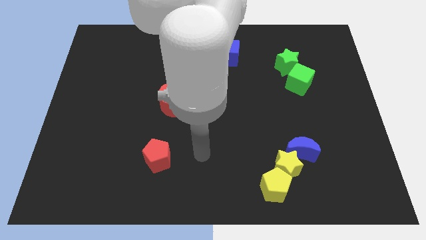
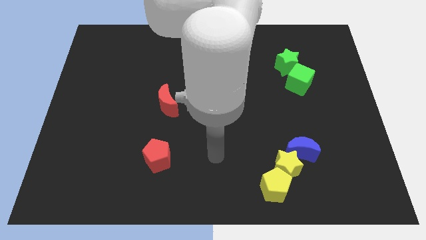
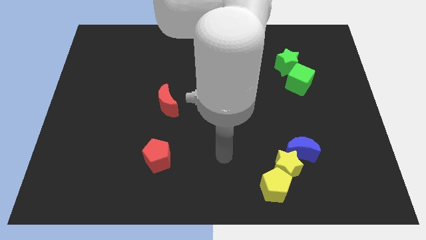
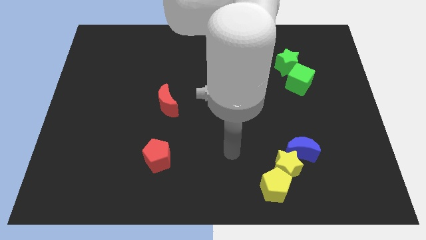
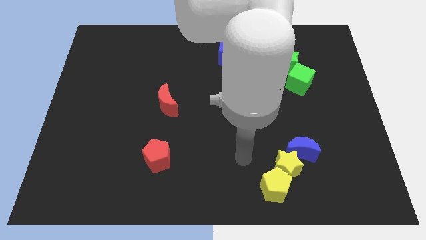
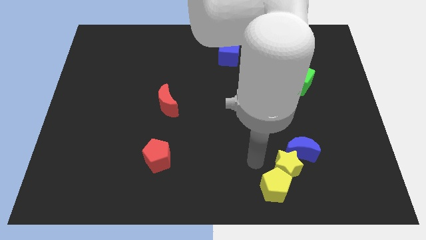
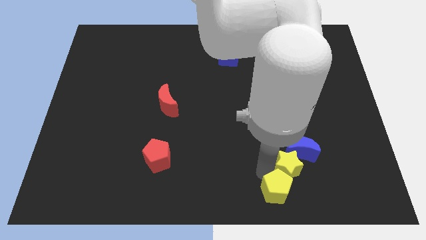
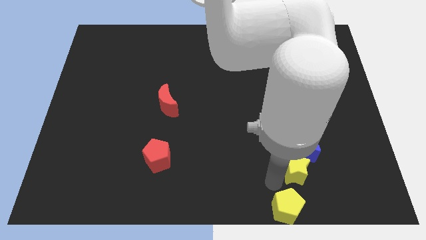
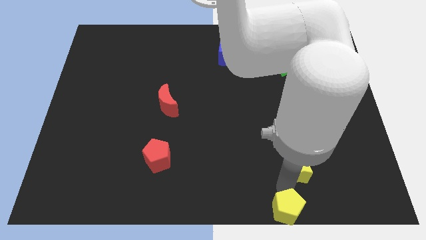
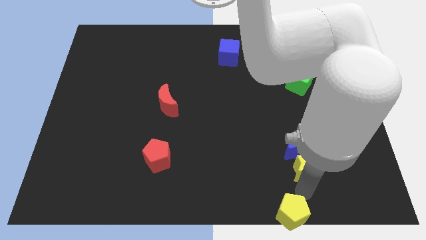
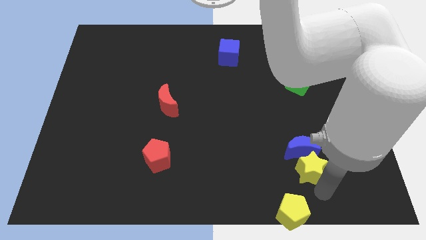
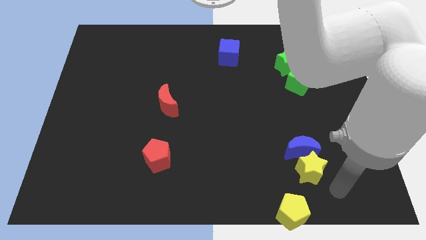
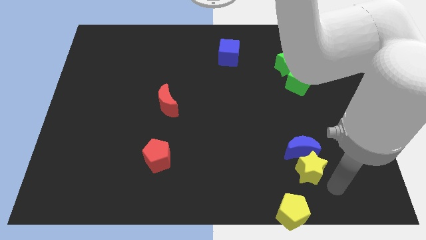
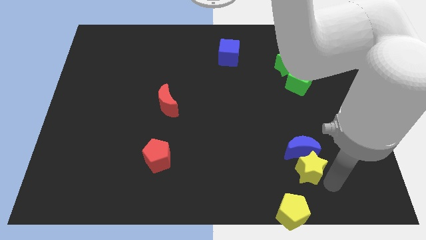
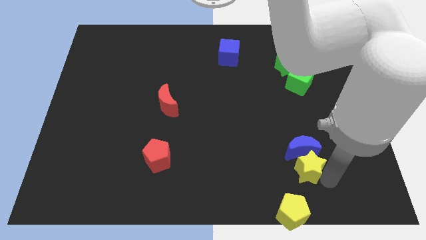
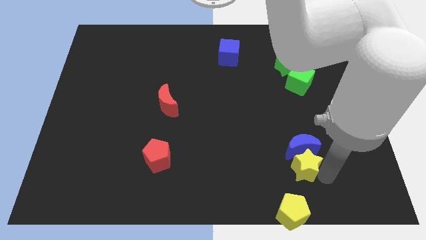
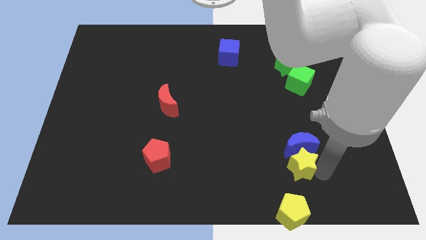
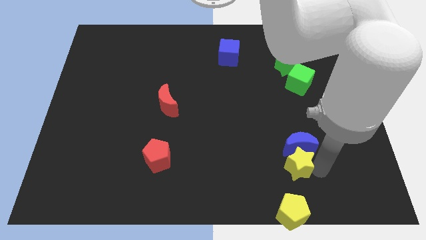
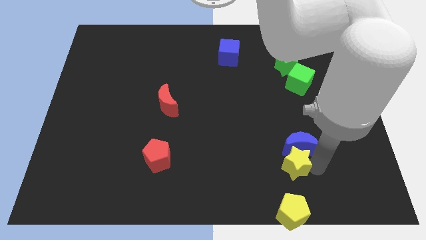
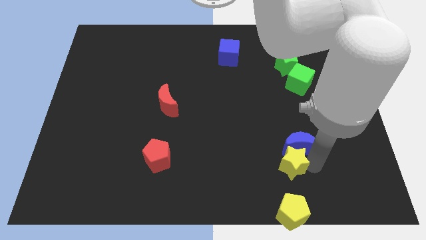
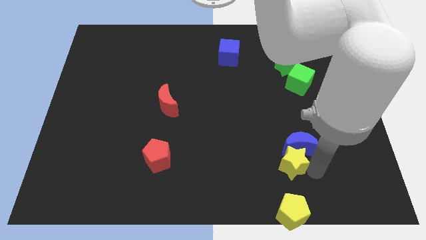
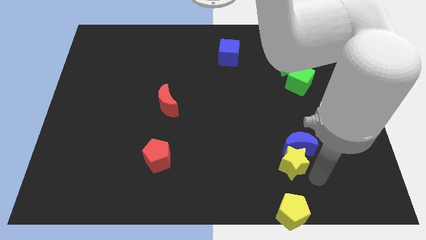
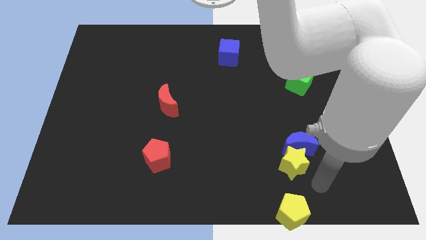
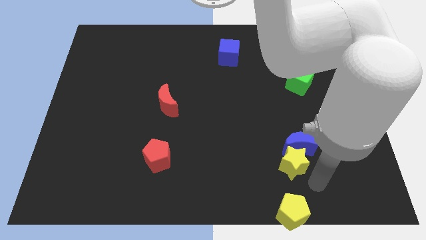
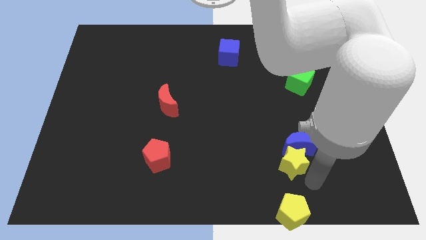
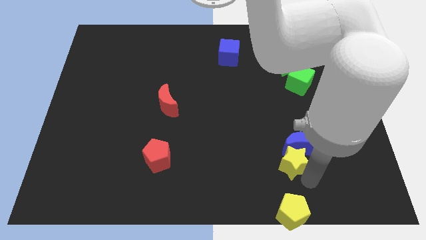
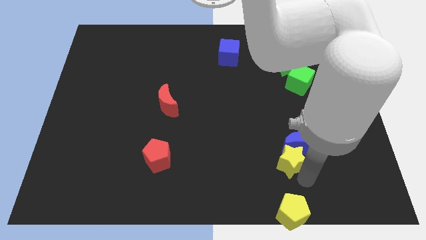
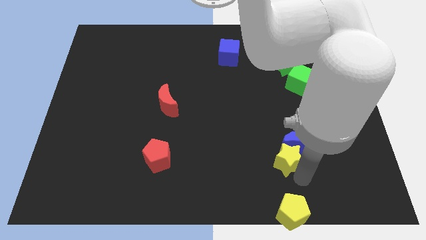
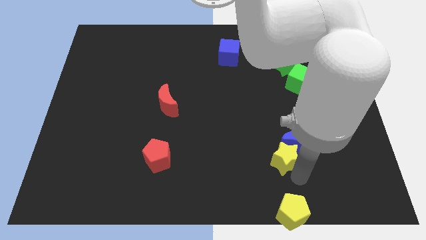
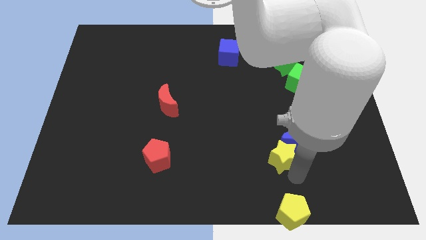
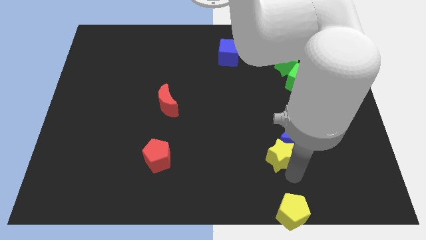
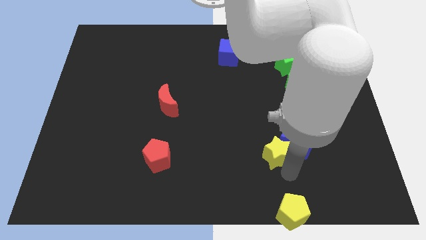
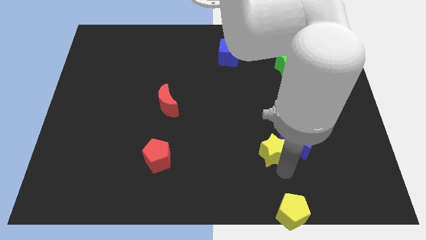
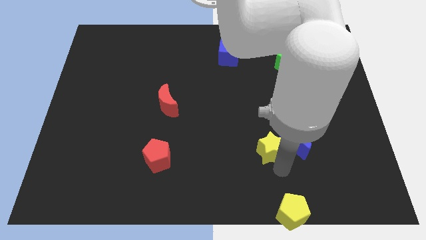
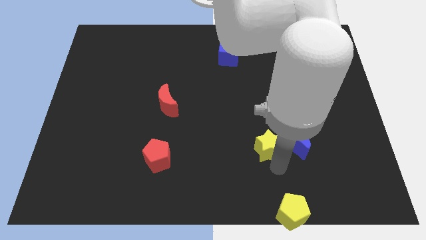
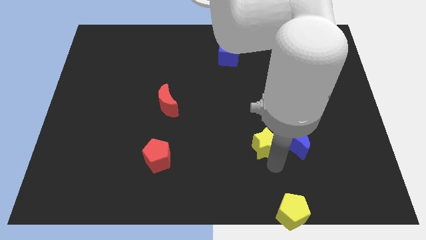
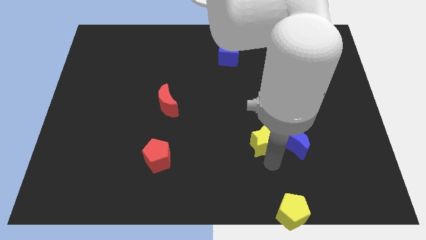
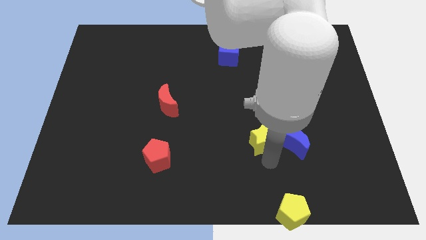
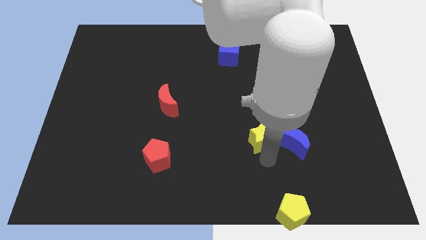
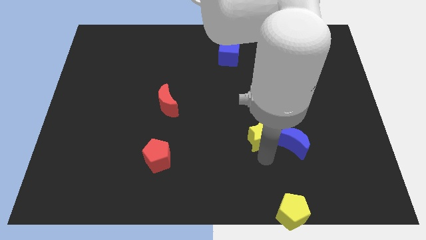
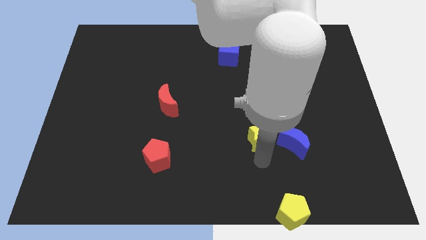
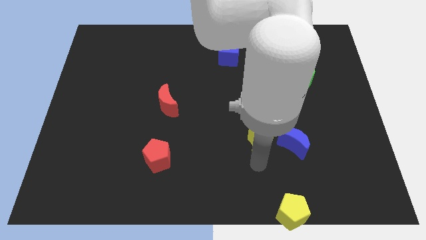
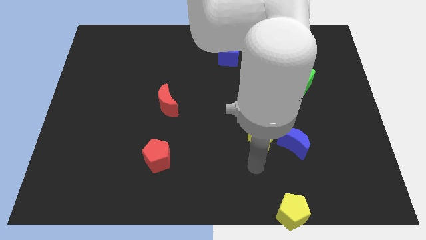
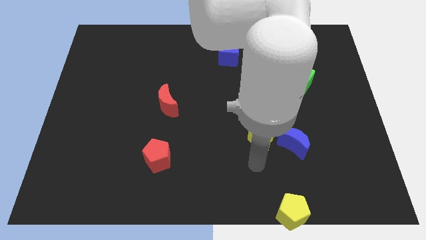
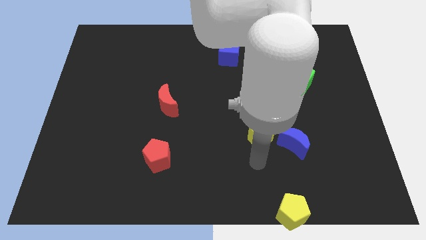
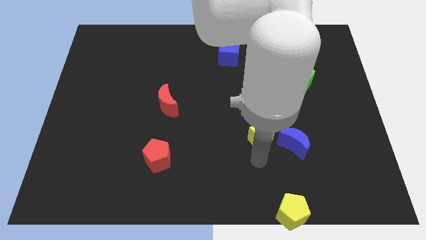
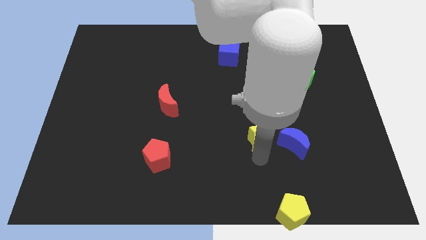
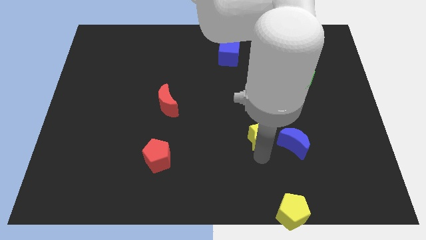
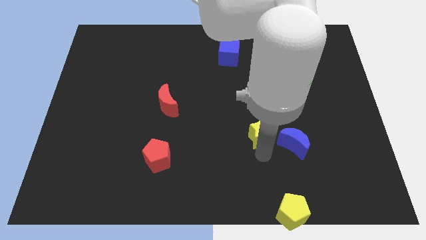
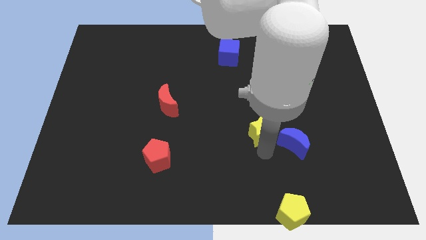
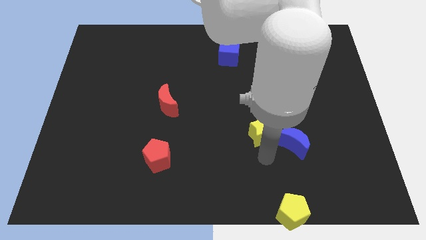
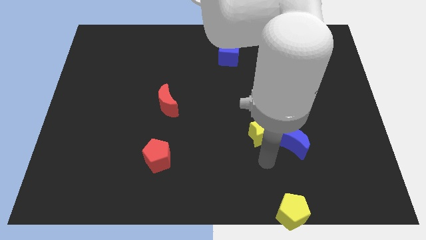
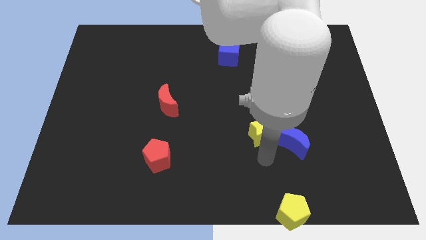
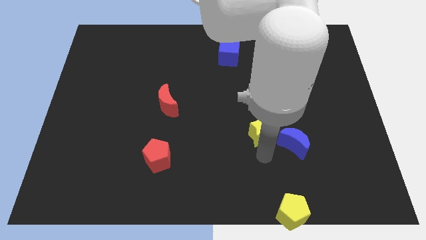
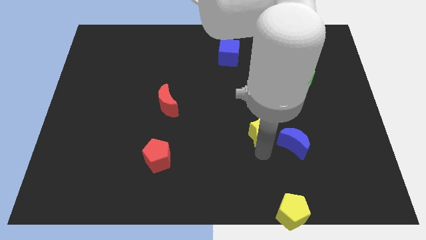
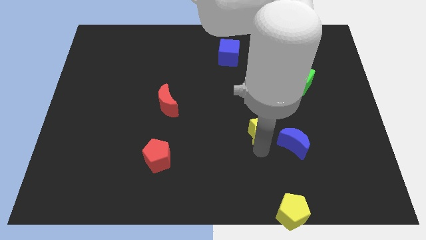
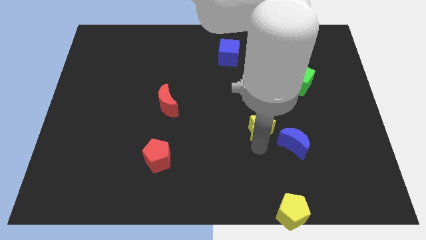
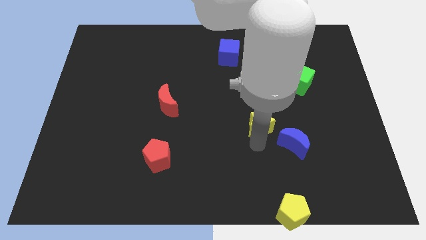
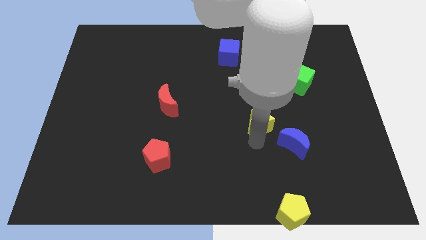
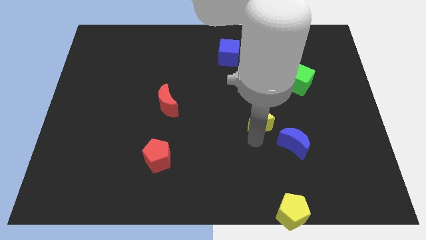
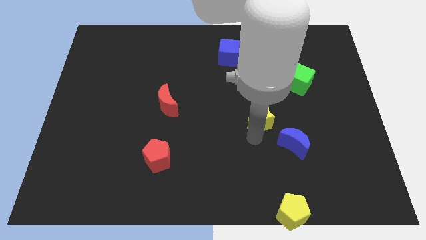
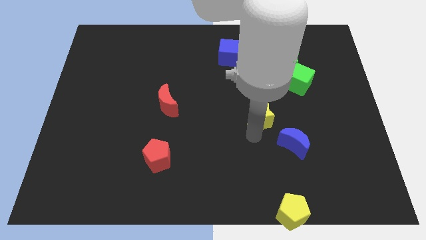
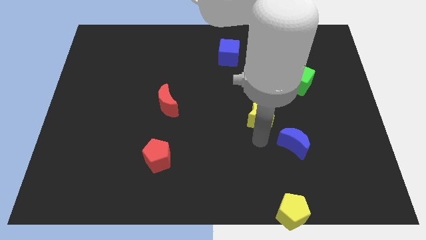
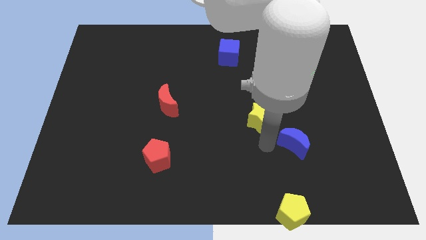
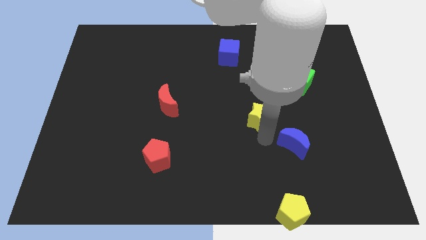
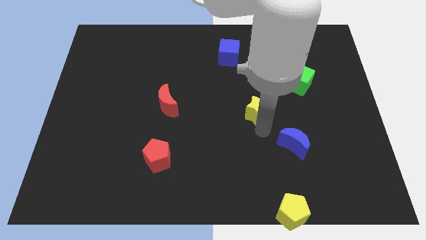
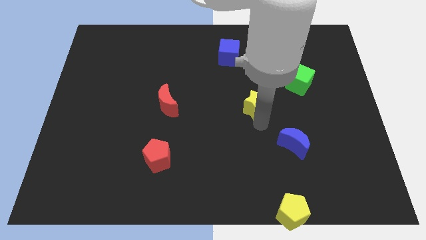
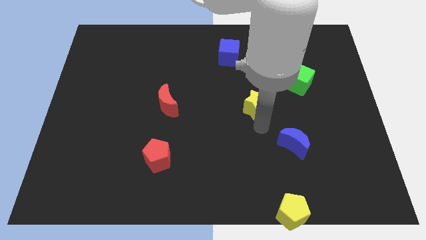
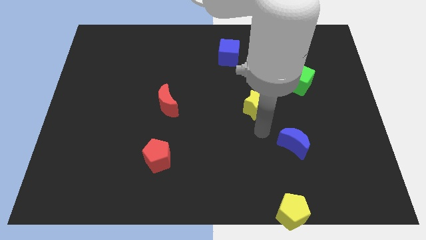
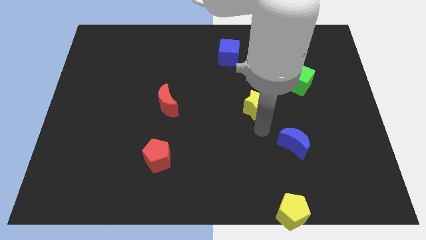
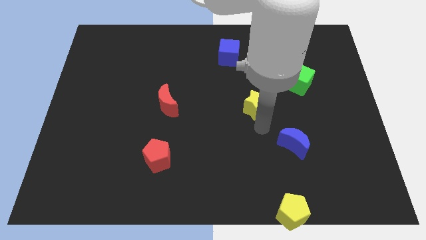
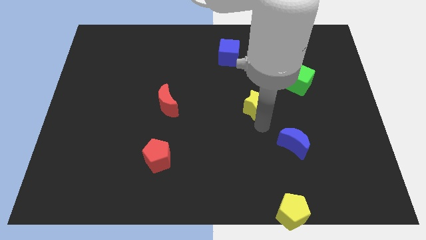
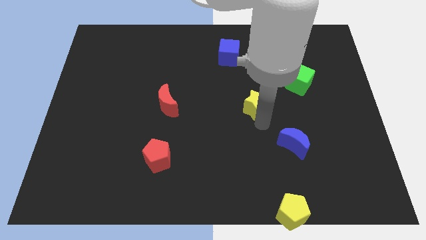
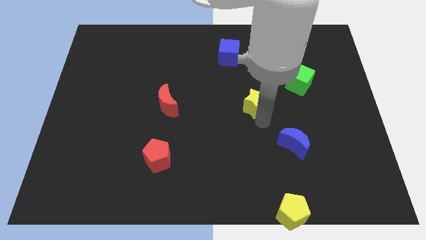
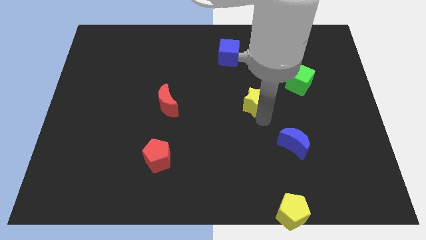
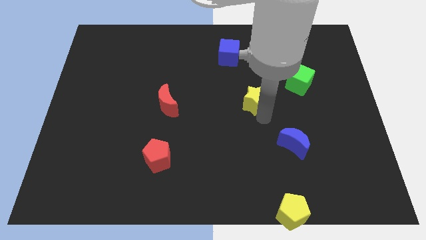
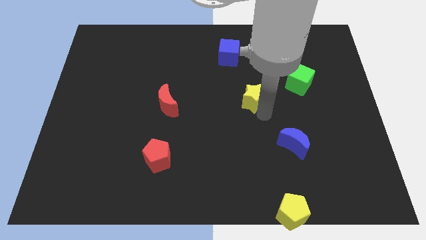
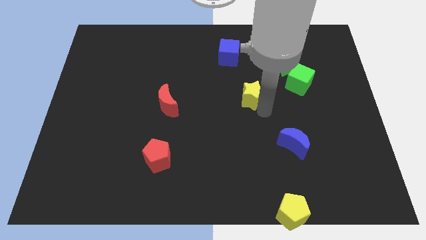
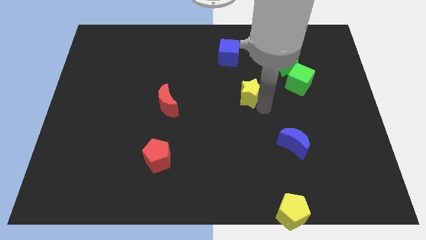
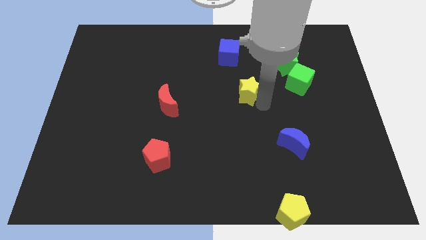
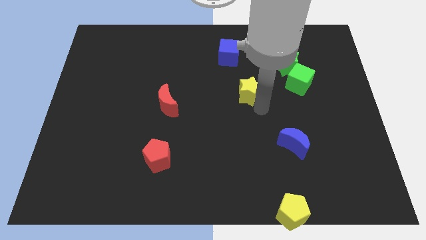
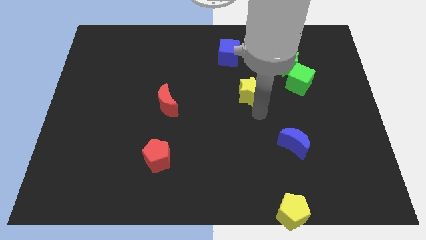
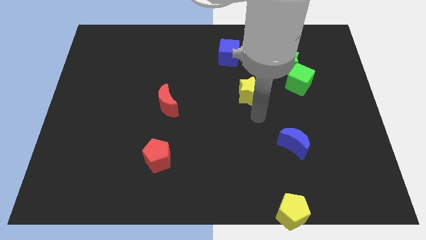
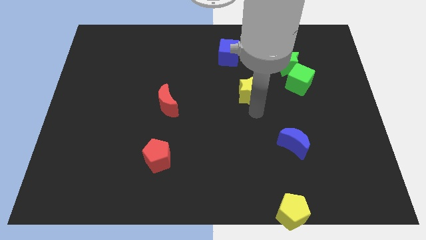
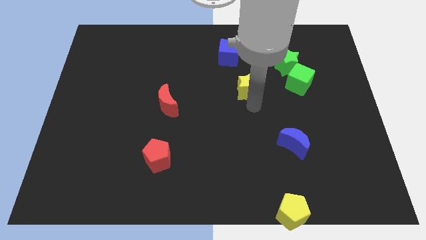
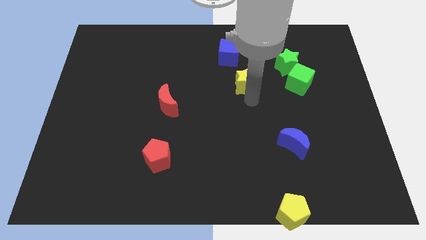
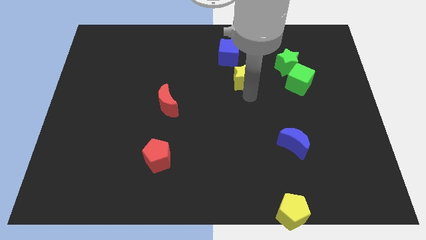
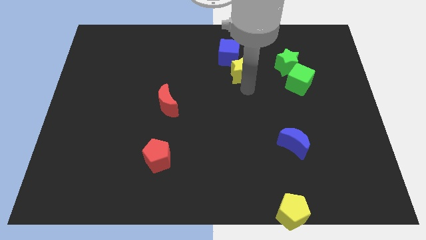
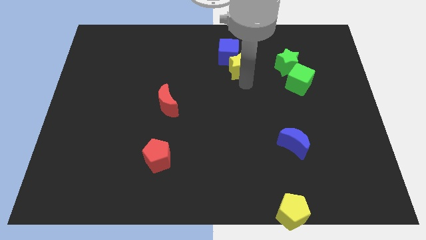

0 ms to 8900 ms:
move the yellow star close to the blue cube
